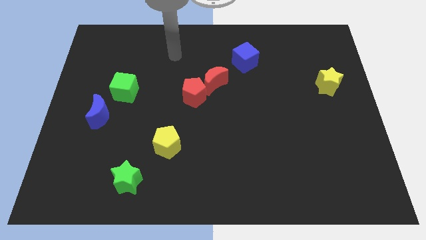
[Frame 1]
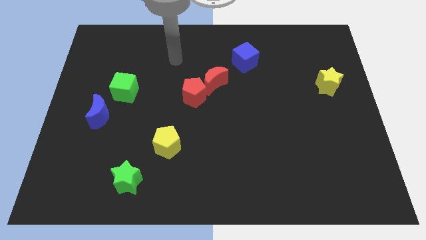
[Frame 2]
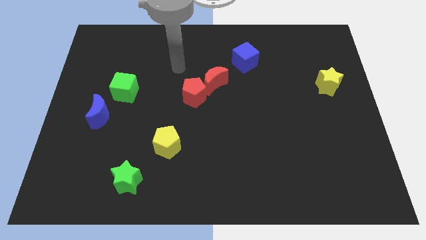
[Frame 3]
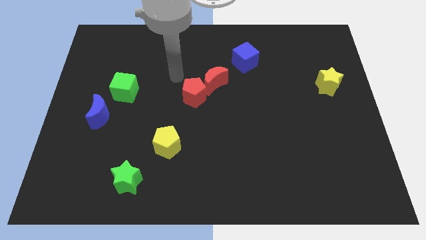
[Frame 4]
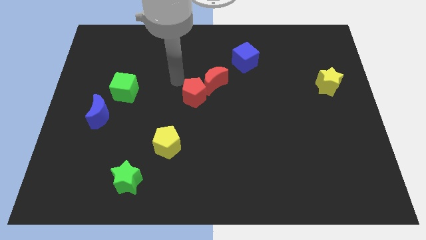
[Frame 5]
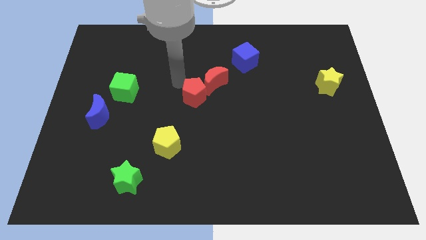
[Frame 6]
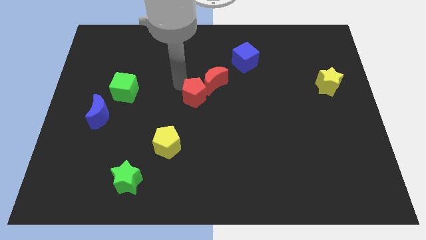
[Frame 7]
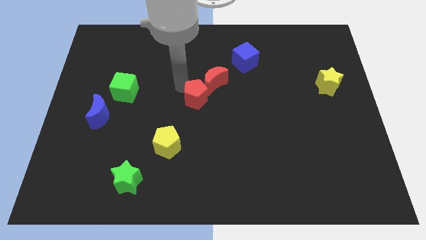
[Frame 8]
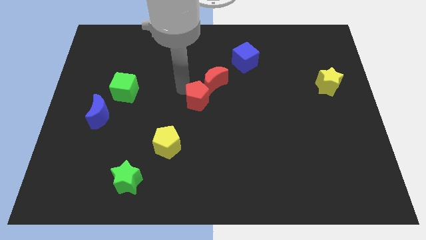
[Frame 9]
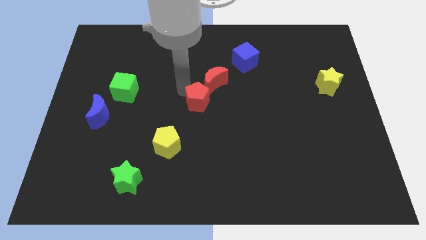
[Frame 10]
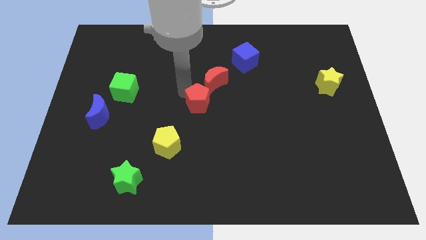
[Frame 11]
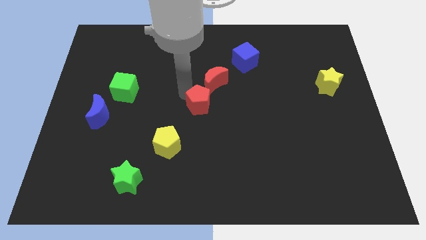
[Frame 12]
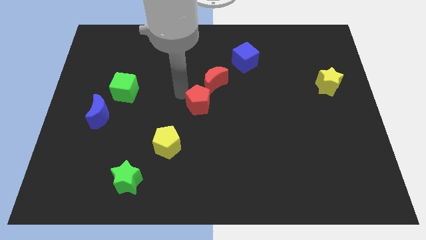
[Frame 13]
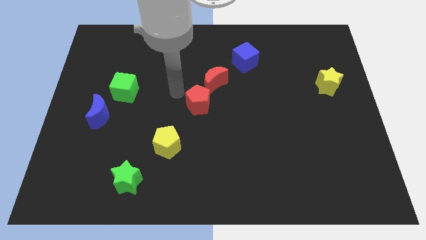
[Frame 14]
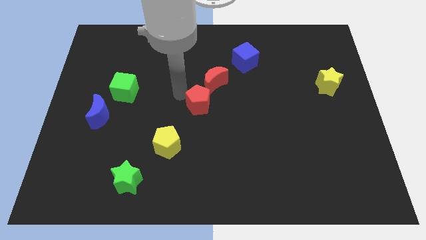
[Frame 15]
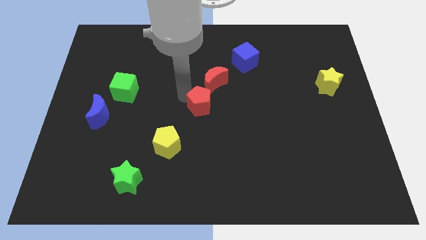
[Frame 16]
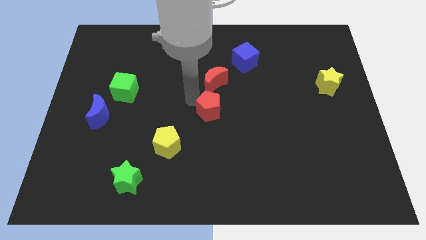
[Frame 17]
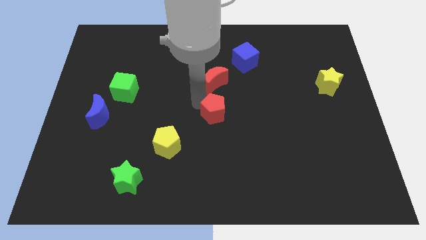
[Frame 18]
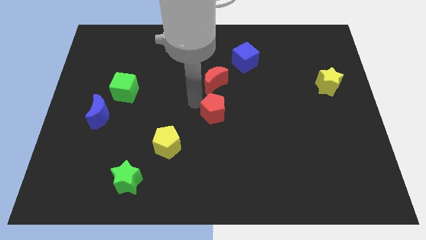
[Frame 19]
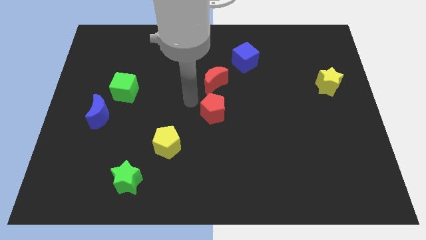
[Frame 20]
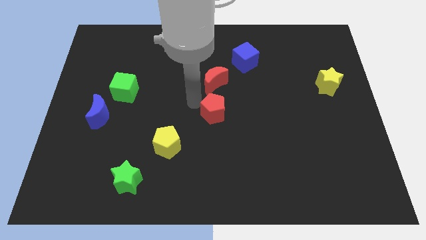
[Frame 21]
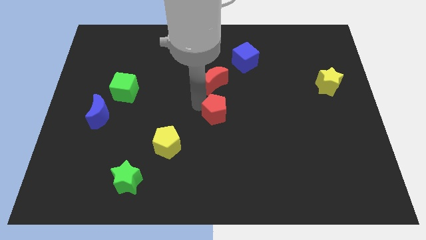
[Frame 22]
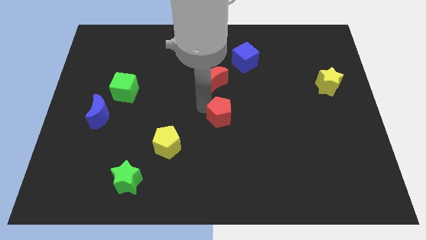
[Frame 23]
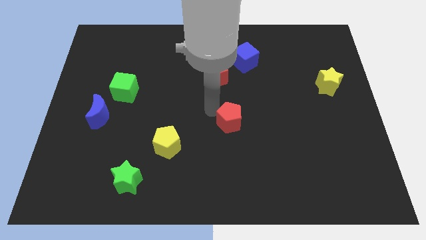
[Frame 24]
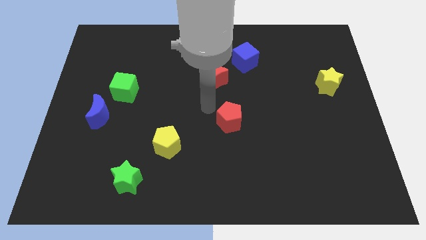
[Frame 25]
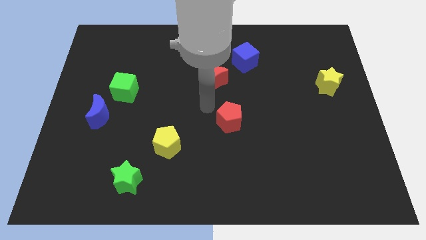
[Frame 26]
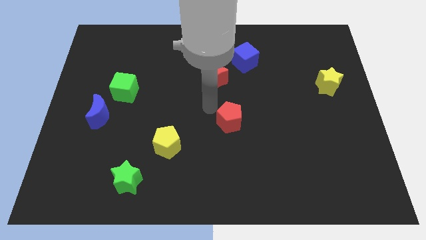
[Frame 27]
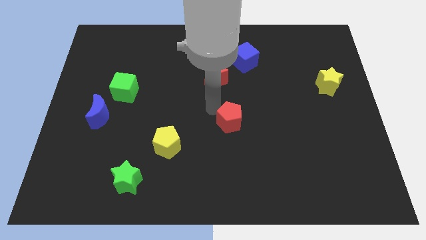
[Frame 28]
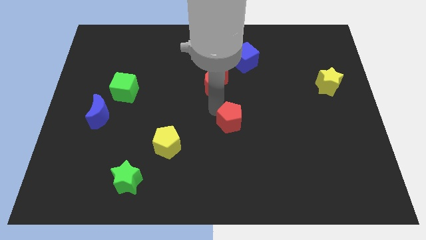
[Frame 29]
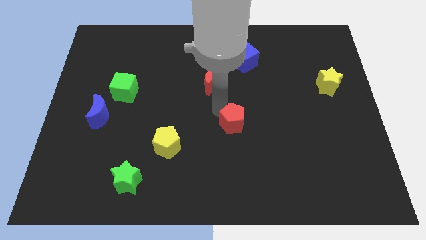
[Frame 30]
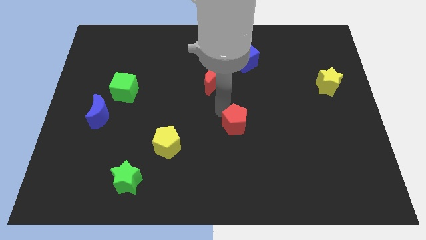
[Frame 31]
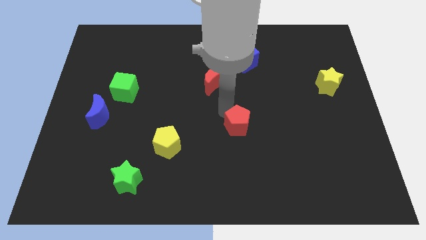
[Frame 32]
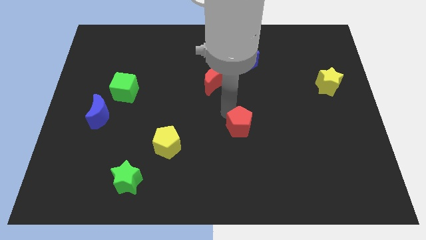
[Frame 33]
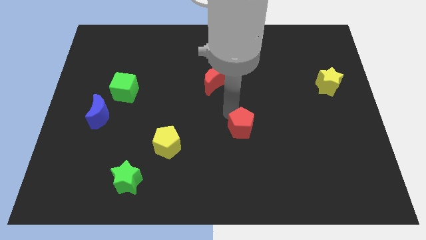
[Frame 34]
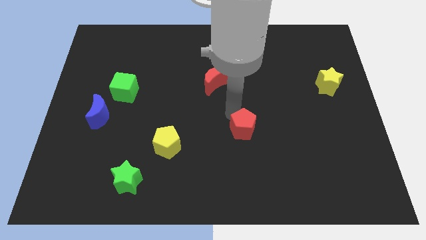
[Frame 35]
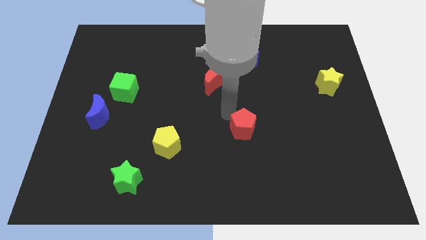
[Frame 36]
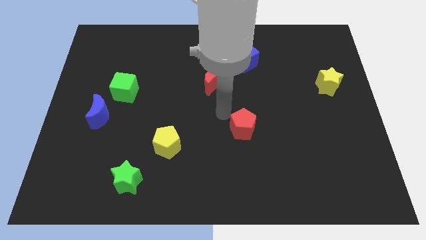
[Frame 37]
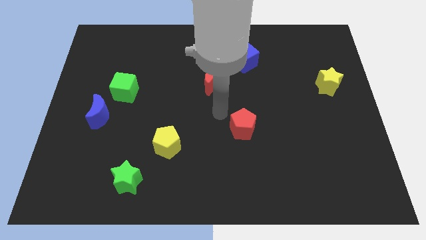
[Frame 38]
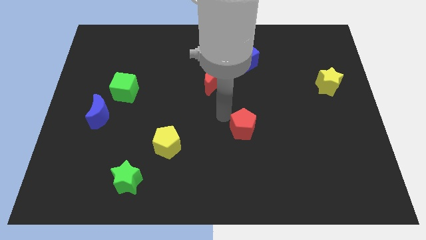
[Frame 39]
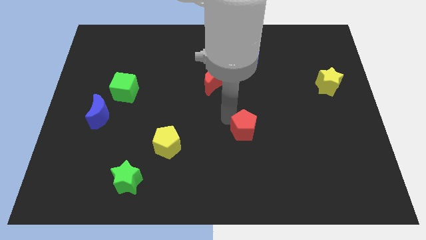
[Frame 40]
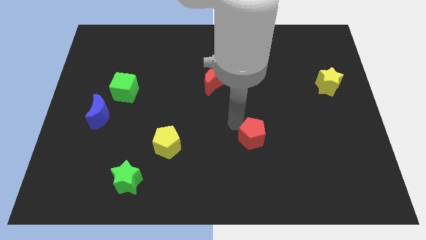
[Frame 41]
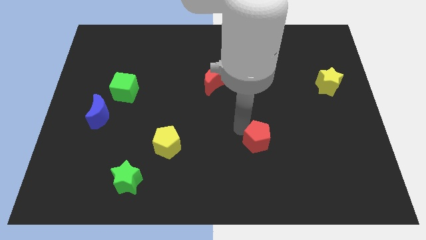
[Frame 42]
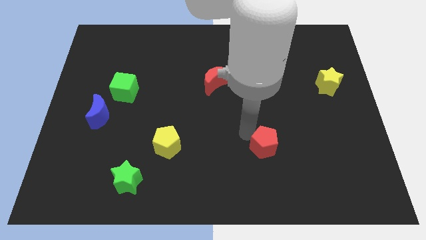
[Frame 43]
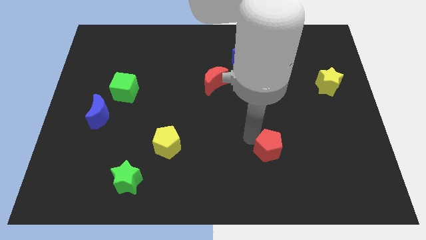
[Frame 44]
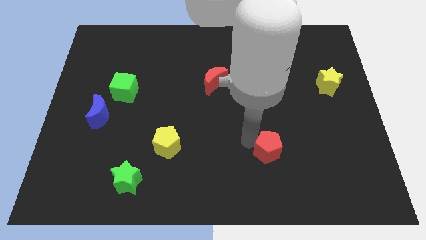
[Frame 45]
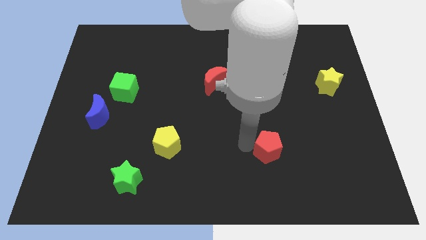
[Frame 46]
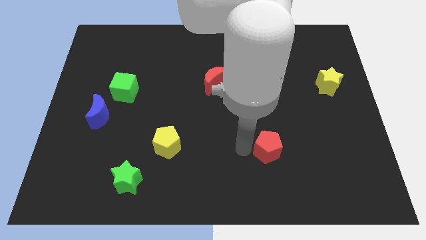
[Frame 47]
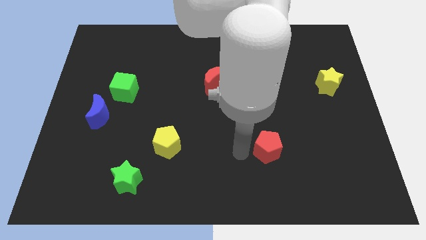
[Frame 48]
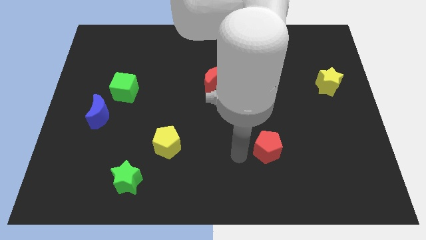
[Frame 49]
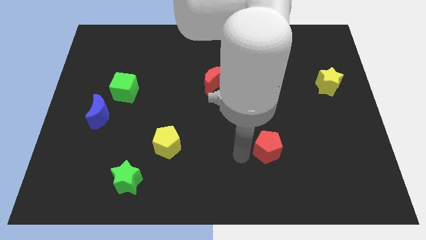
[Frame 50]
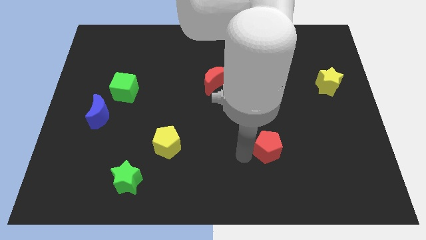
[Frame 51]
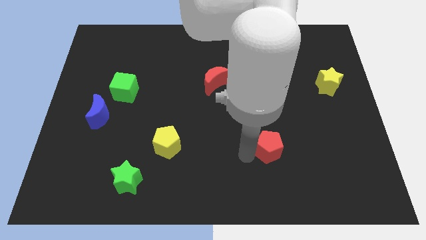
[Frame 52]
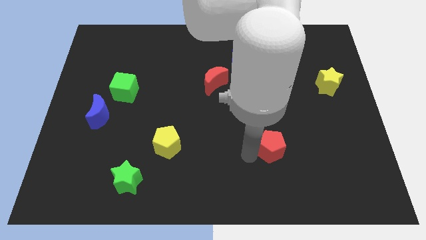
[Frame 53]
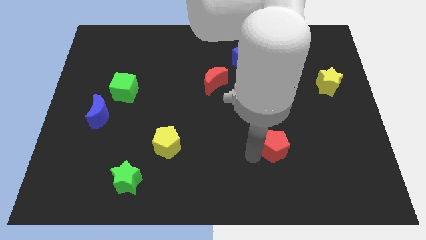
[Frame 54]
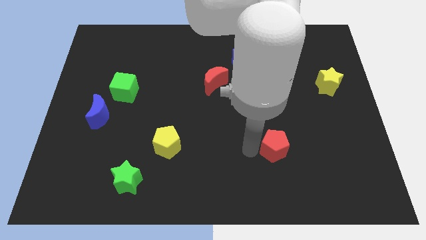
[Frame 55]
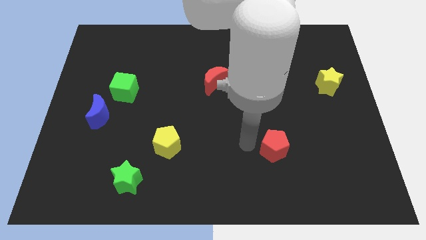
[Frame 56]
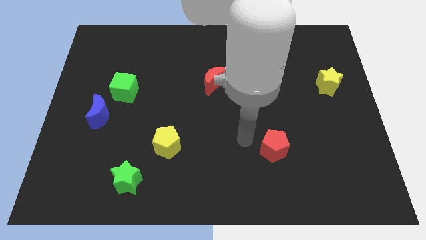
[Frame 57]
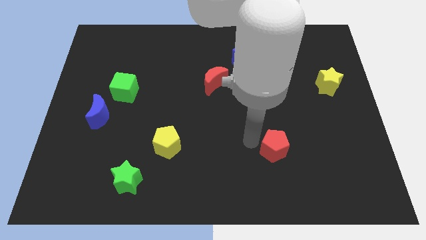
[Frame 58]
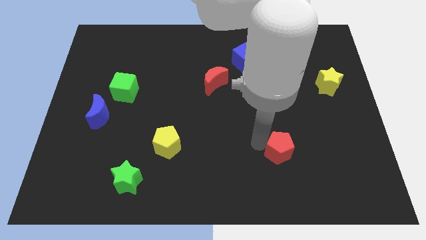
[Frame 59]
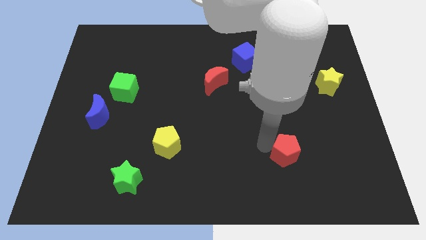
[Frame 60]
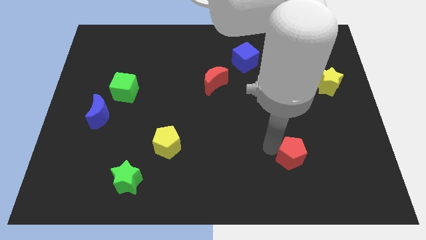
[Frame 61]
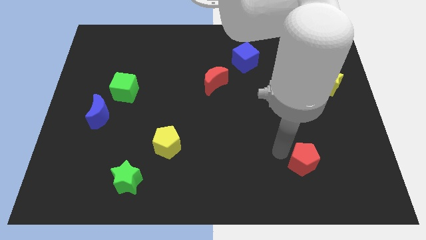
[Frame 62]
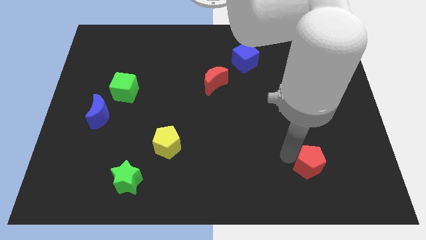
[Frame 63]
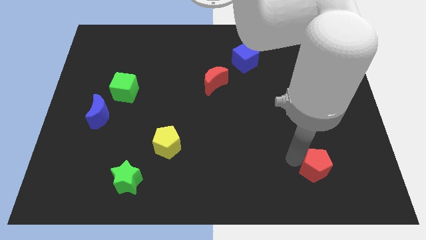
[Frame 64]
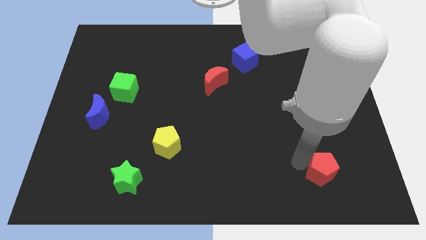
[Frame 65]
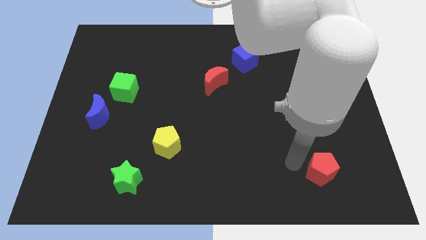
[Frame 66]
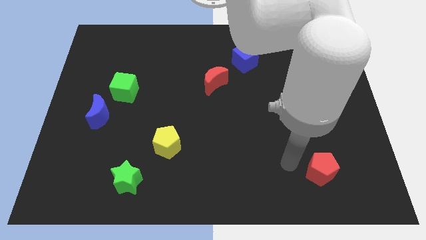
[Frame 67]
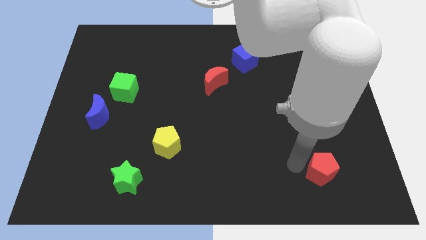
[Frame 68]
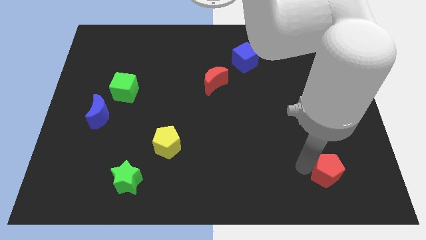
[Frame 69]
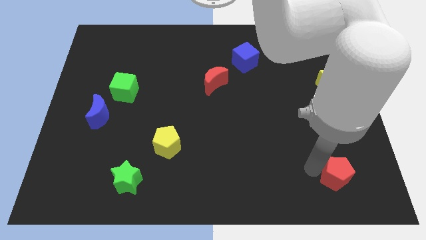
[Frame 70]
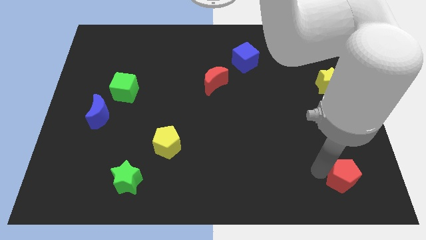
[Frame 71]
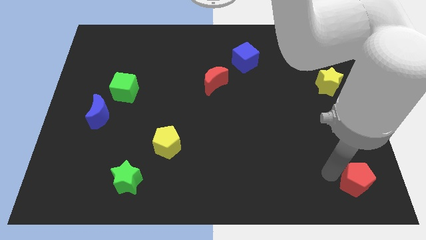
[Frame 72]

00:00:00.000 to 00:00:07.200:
slide the red pentagon to the bottom right

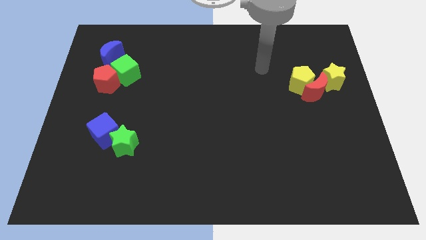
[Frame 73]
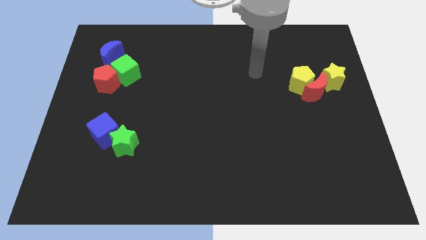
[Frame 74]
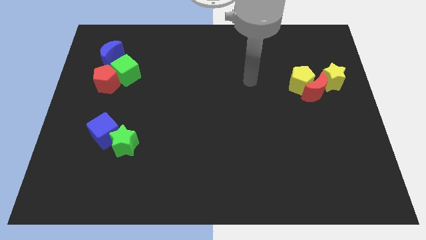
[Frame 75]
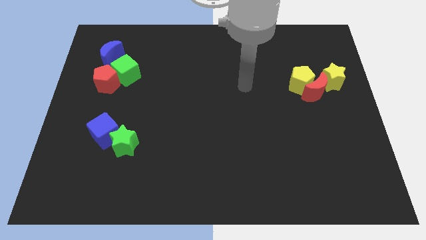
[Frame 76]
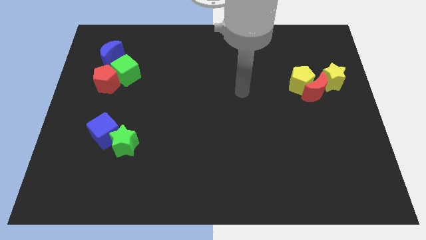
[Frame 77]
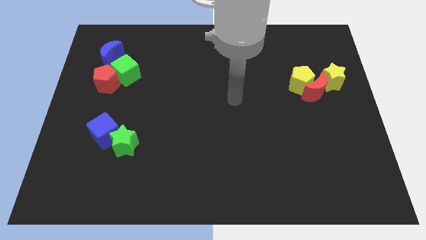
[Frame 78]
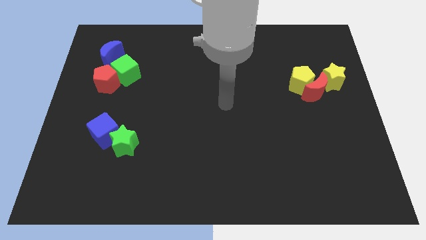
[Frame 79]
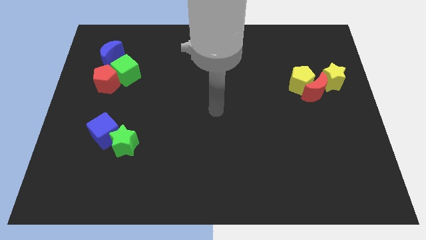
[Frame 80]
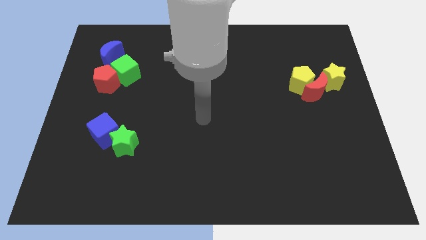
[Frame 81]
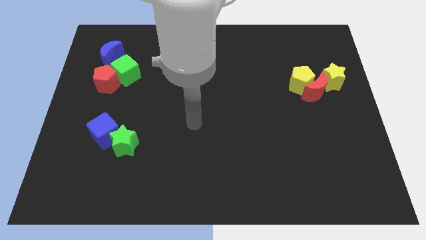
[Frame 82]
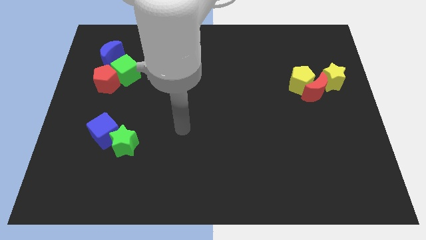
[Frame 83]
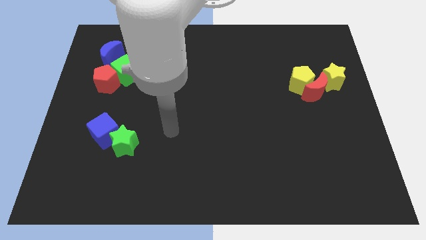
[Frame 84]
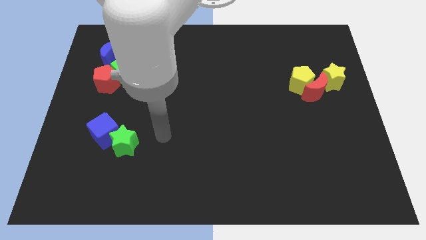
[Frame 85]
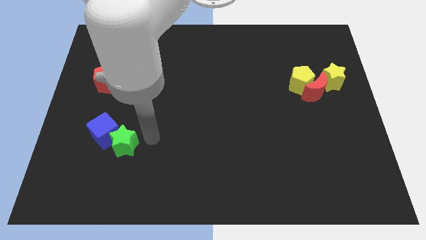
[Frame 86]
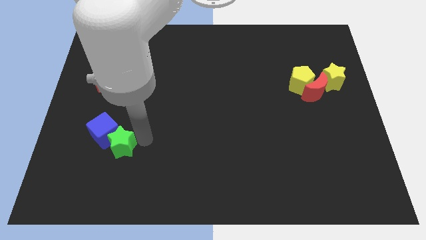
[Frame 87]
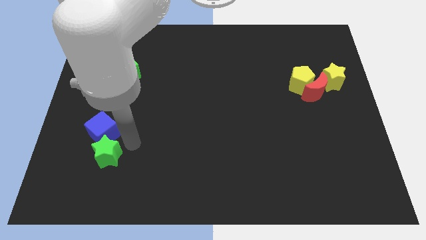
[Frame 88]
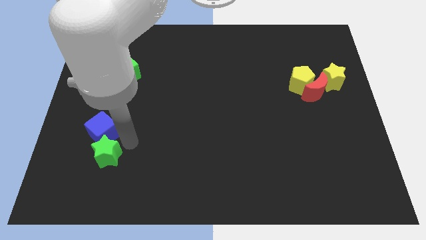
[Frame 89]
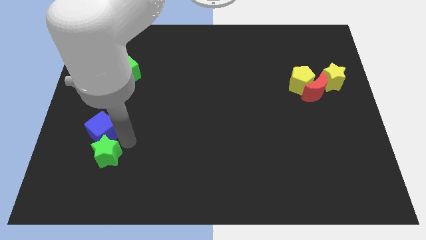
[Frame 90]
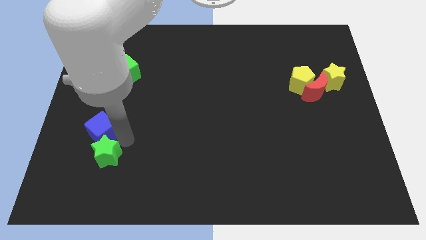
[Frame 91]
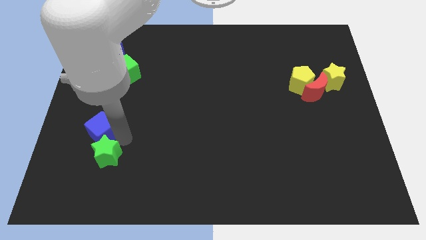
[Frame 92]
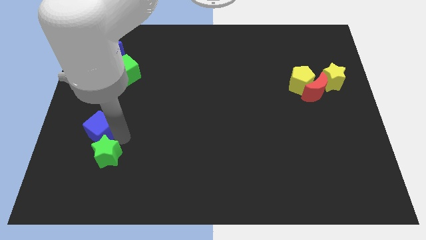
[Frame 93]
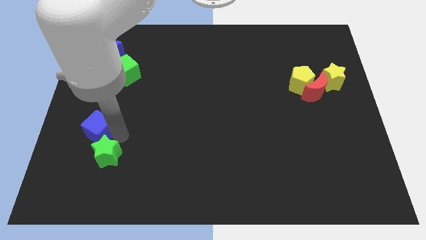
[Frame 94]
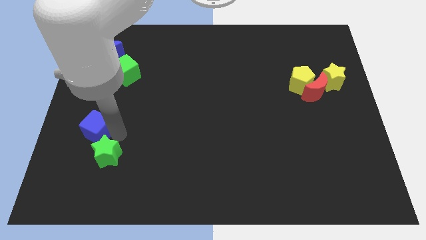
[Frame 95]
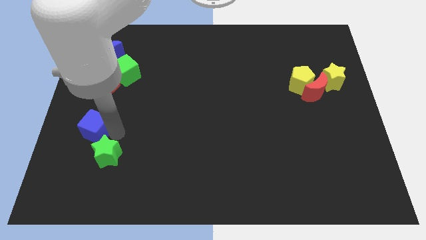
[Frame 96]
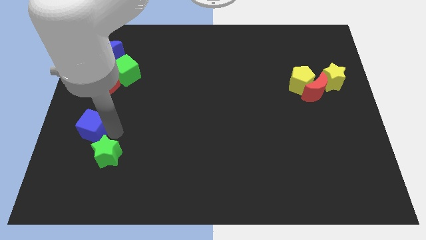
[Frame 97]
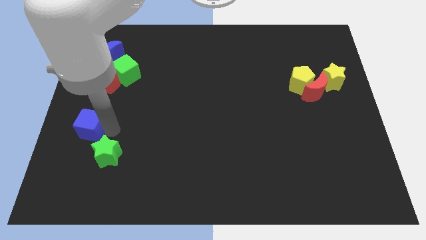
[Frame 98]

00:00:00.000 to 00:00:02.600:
put the blue cube to the center left
